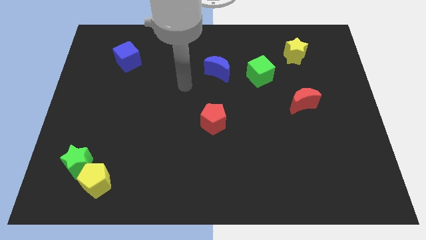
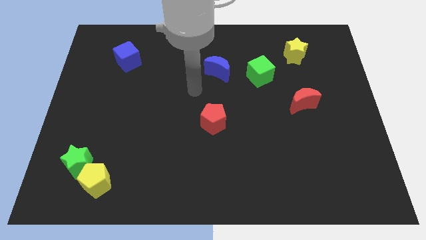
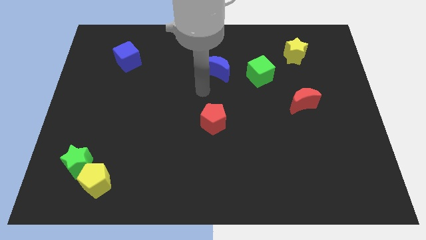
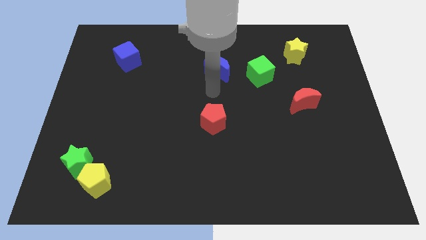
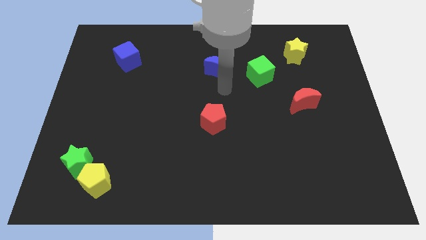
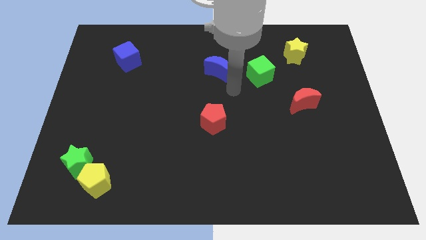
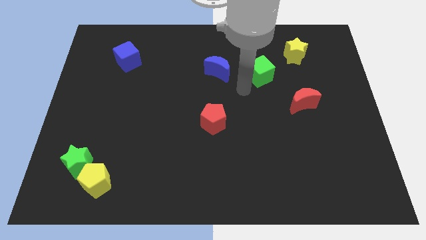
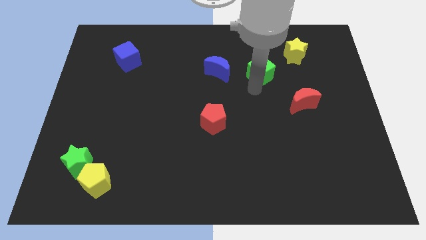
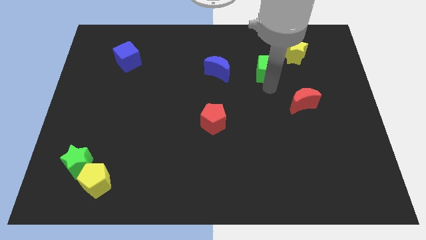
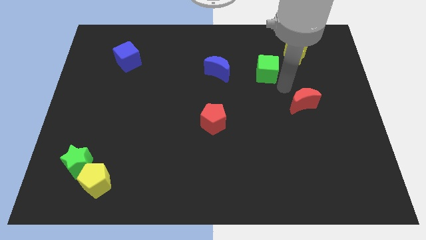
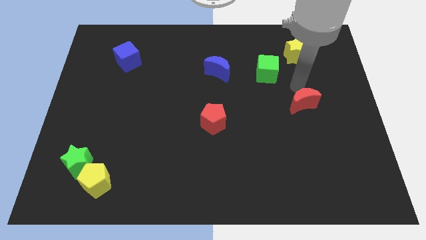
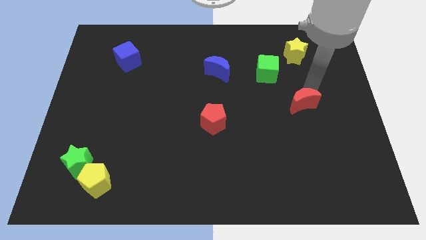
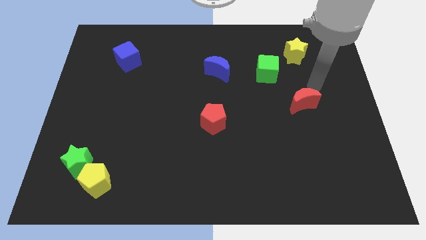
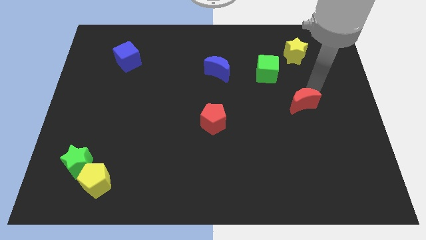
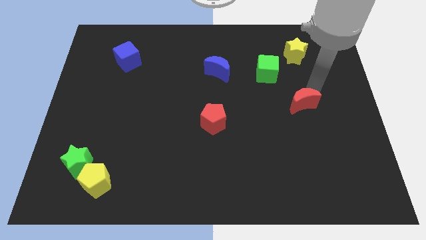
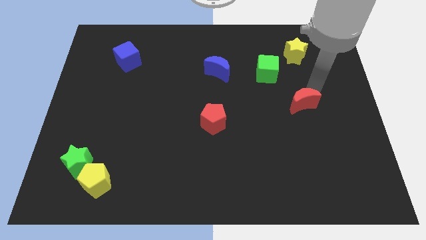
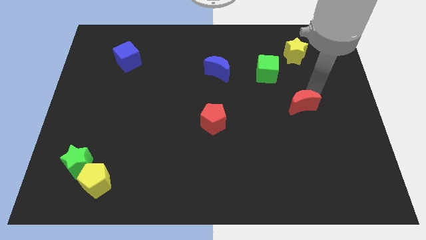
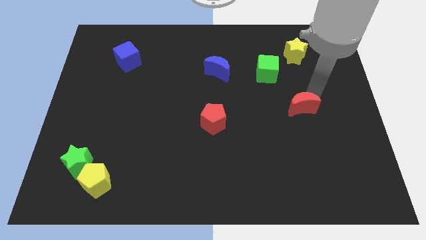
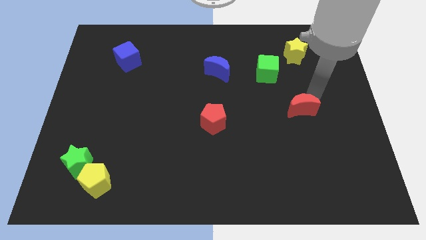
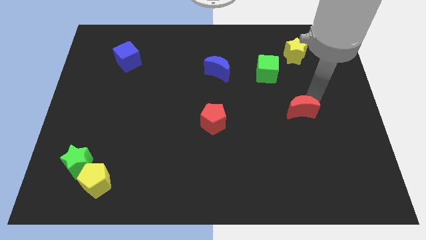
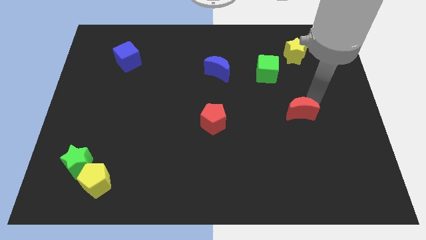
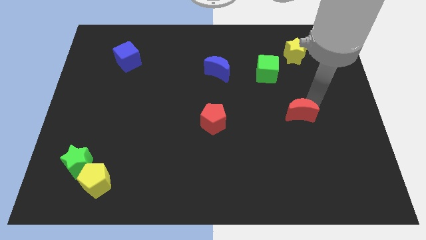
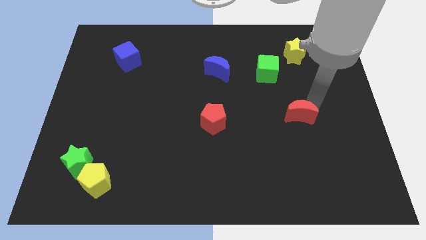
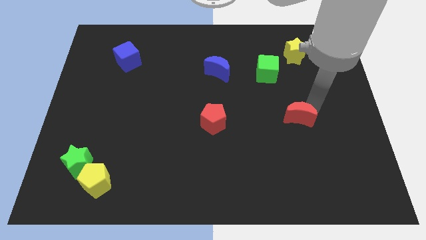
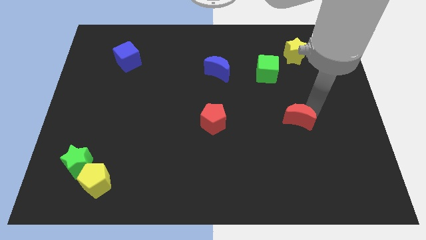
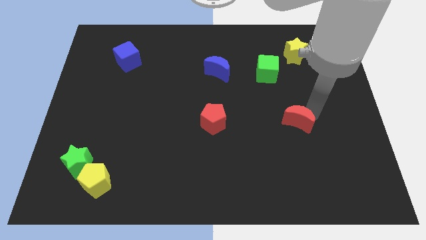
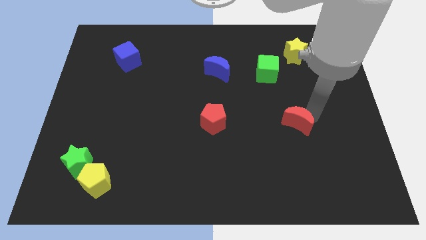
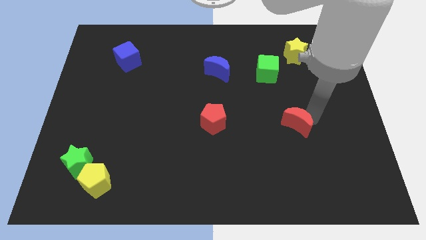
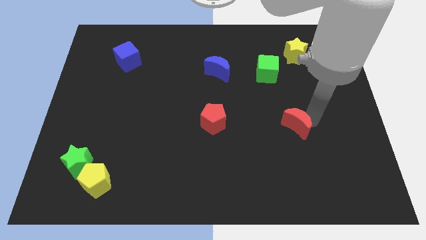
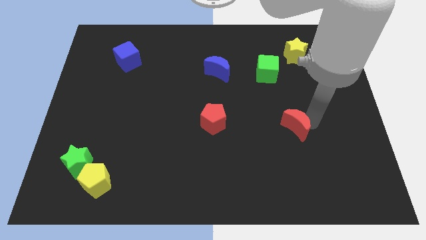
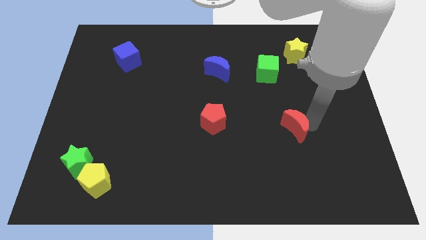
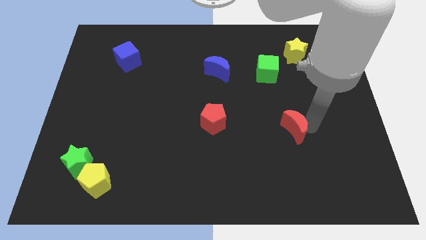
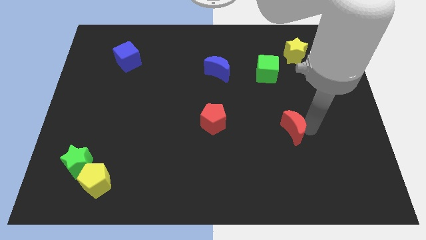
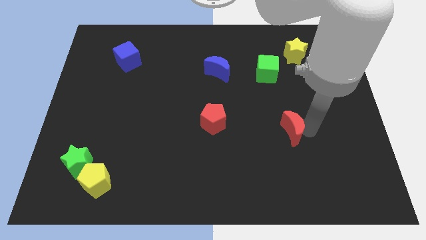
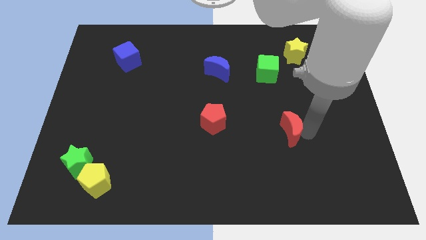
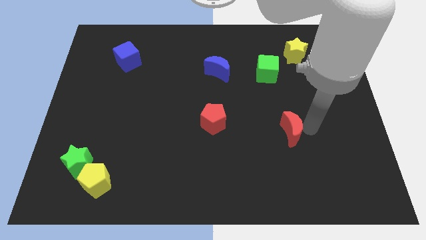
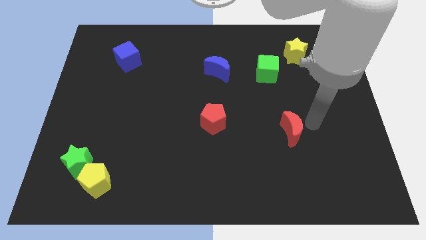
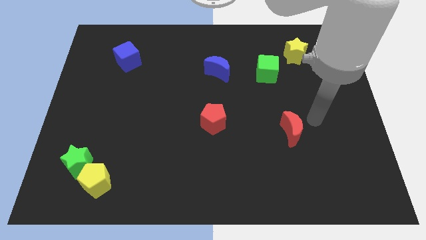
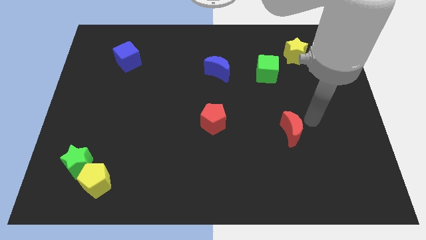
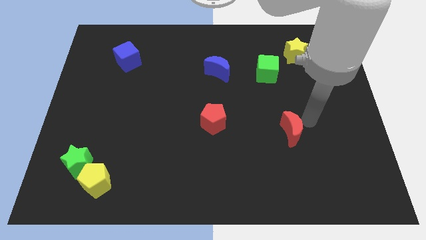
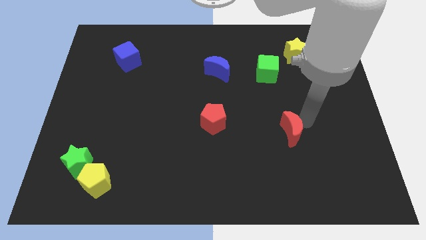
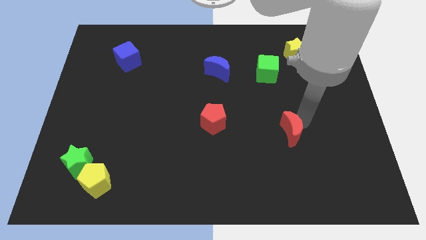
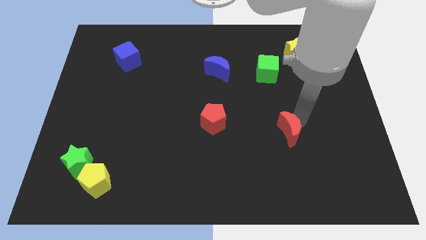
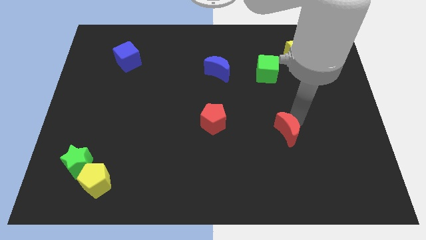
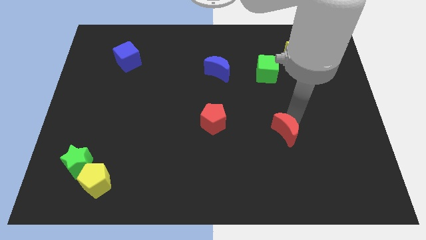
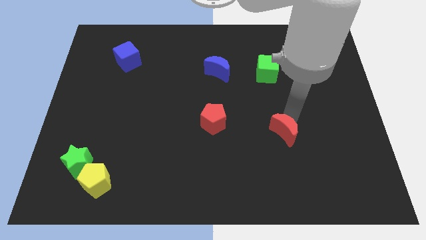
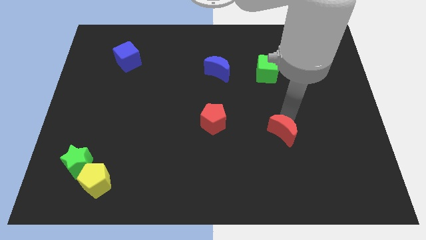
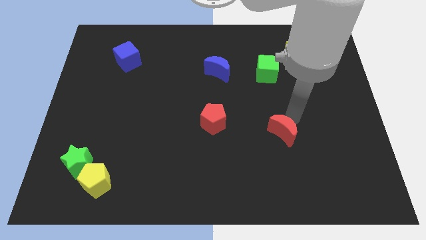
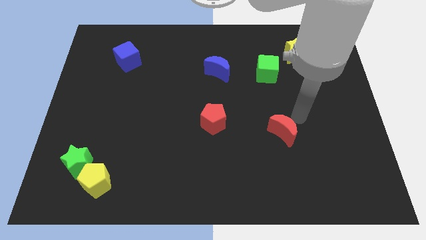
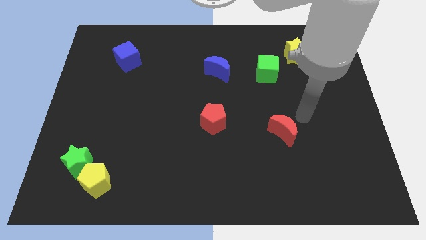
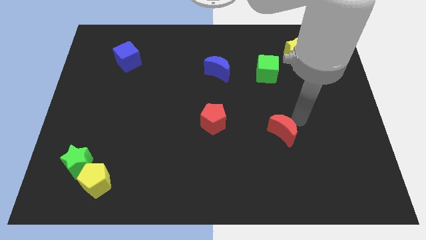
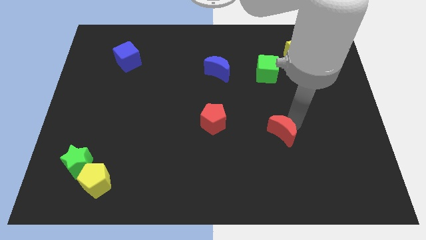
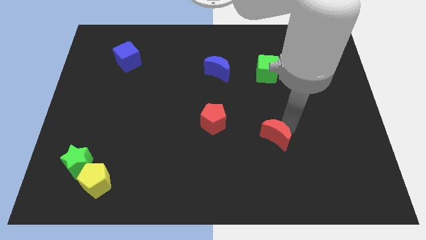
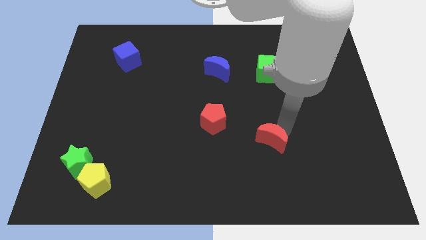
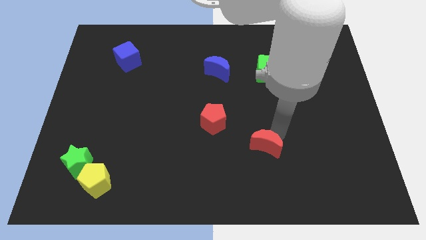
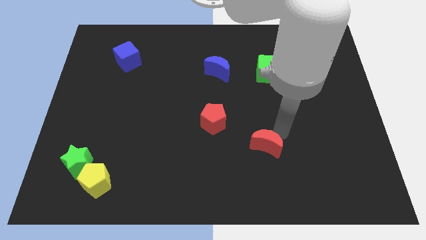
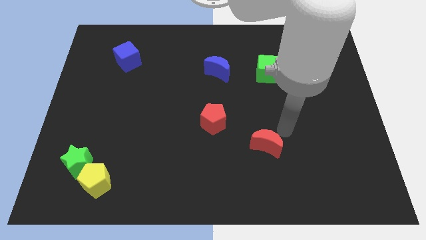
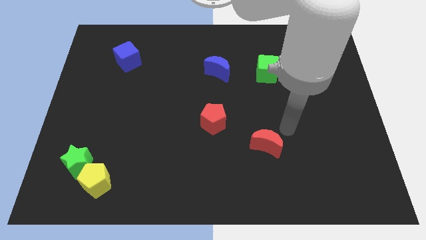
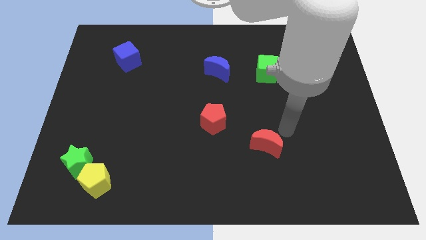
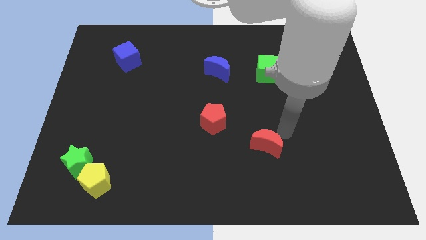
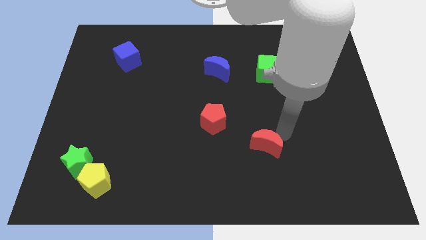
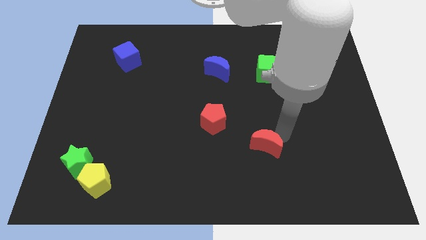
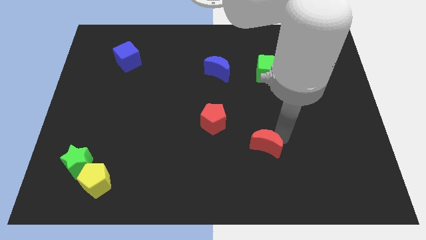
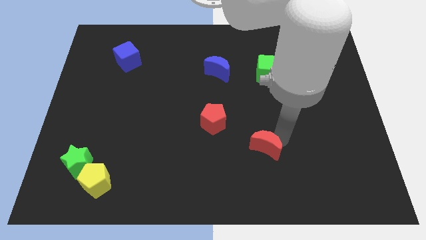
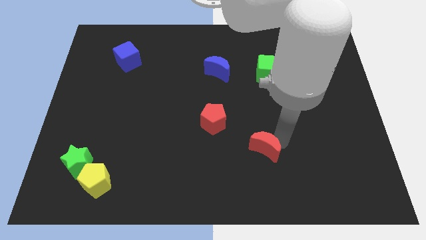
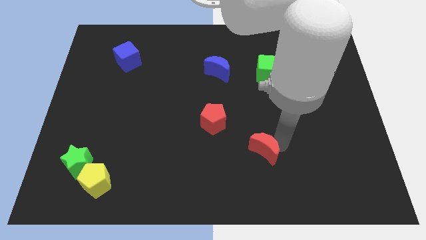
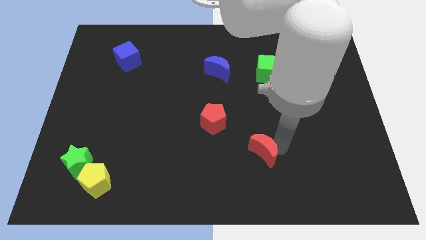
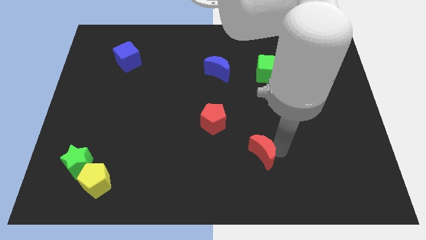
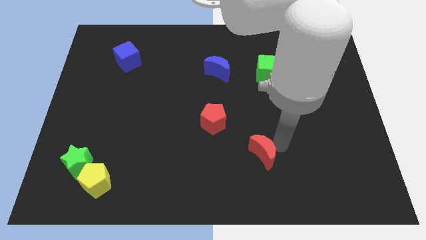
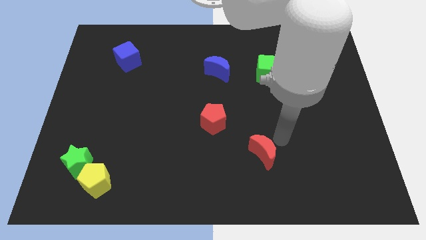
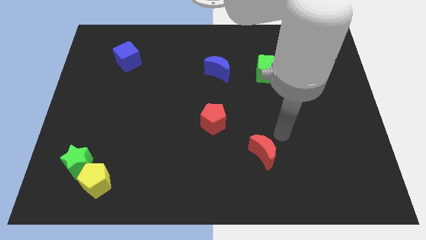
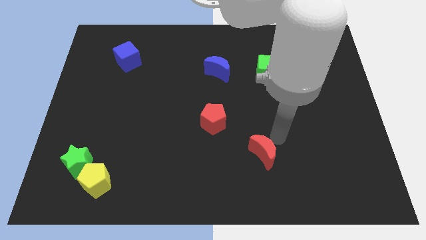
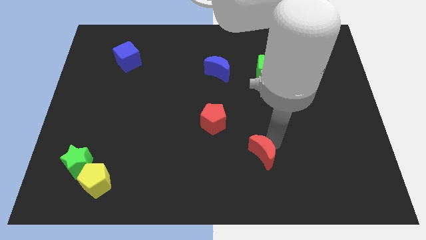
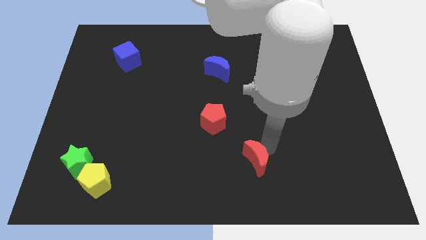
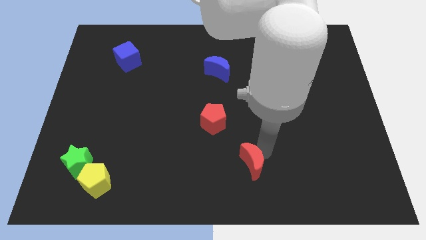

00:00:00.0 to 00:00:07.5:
push the red moon to the bottom side
